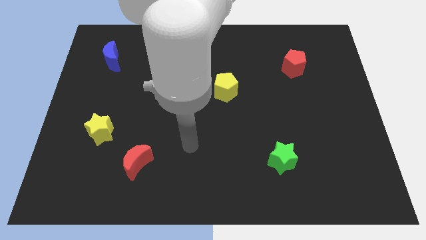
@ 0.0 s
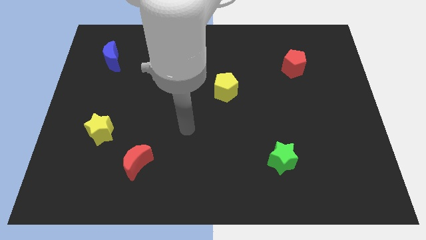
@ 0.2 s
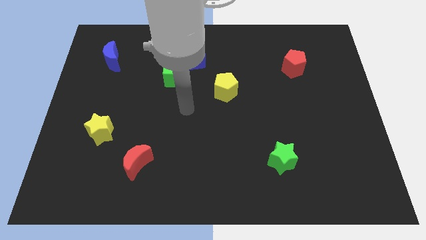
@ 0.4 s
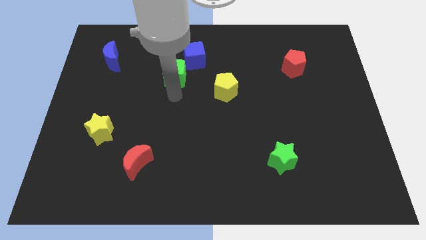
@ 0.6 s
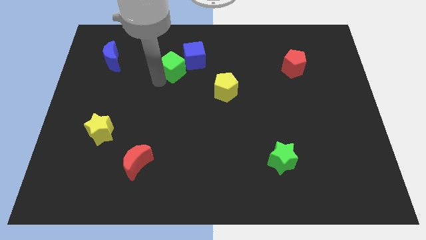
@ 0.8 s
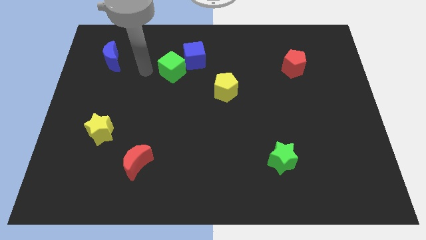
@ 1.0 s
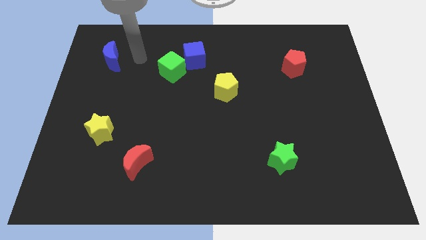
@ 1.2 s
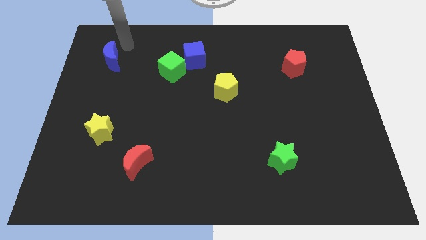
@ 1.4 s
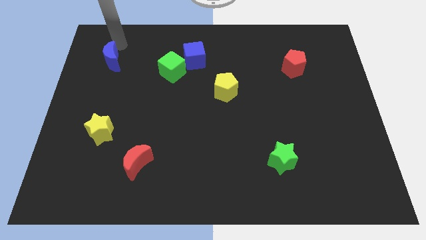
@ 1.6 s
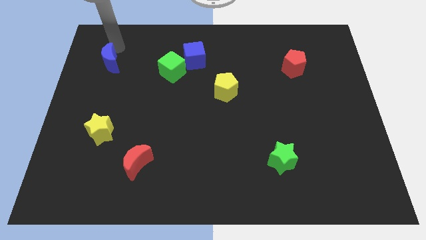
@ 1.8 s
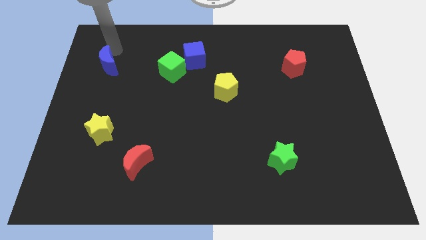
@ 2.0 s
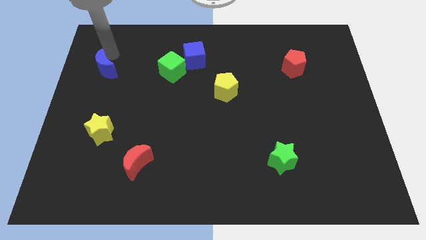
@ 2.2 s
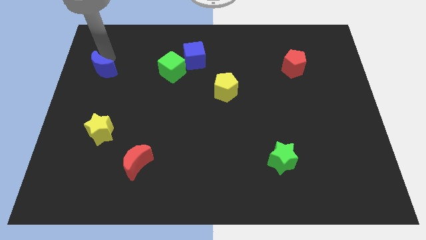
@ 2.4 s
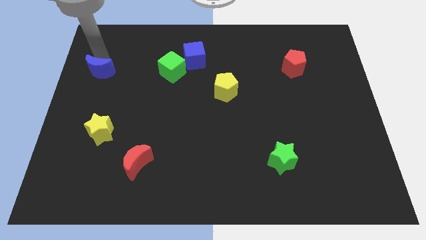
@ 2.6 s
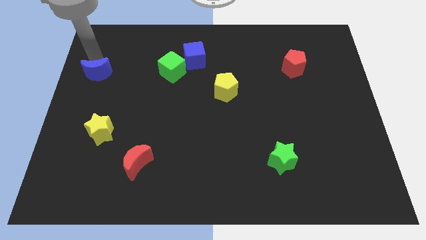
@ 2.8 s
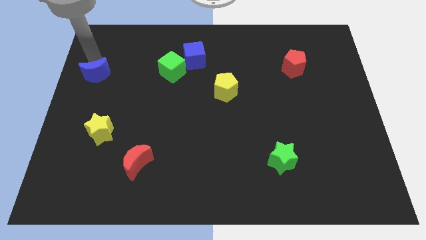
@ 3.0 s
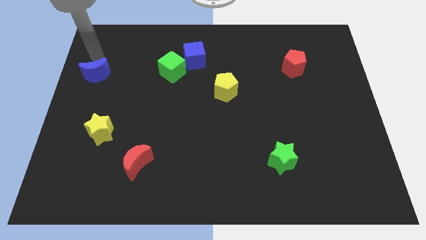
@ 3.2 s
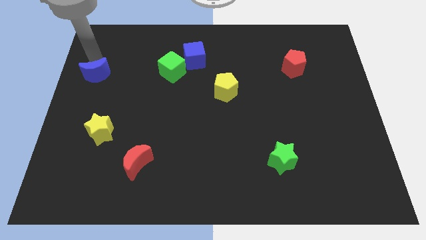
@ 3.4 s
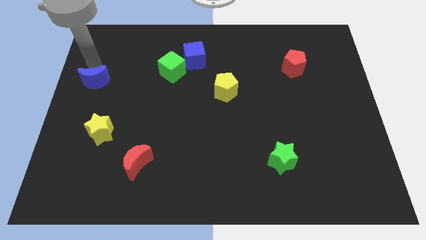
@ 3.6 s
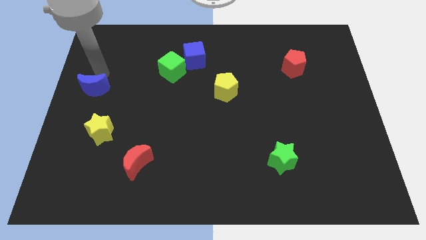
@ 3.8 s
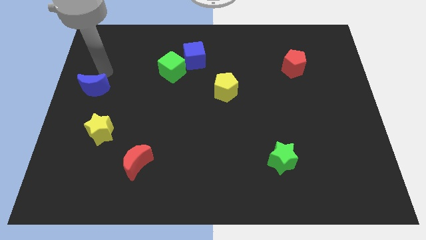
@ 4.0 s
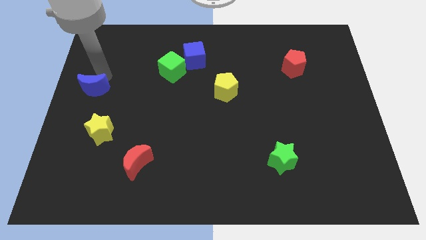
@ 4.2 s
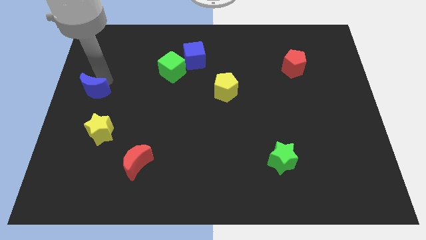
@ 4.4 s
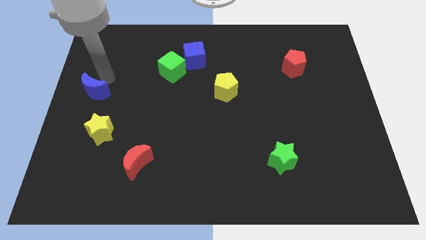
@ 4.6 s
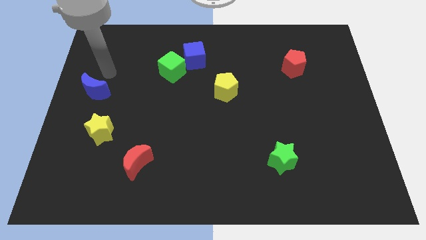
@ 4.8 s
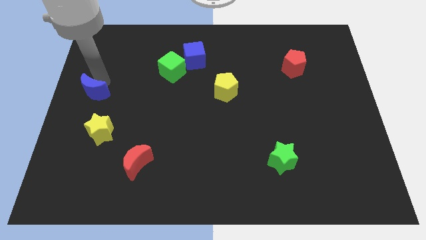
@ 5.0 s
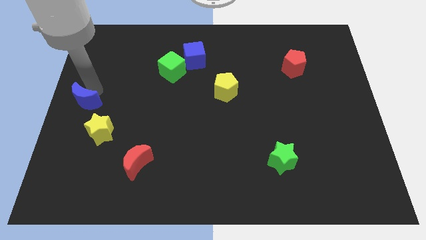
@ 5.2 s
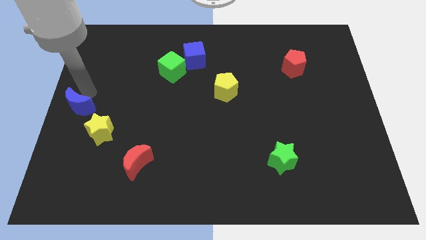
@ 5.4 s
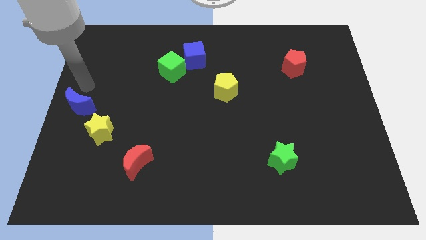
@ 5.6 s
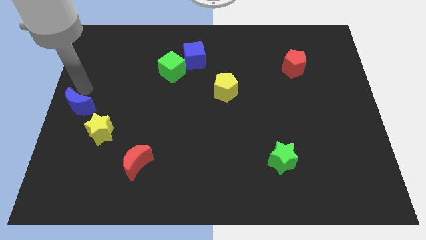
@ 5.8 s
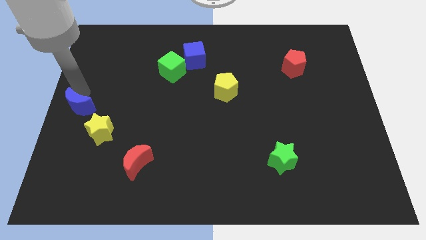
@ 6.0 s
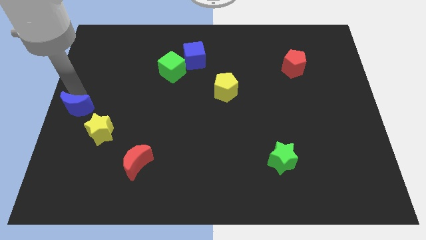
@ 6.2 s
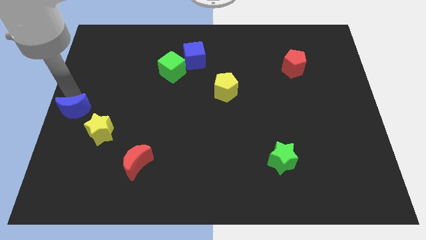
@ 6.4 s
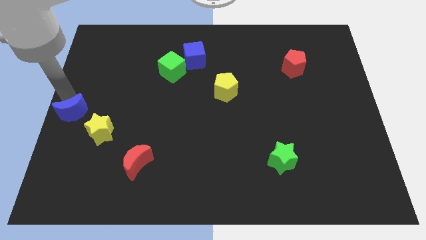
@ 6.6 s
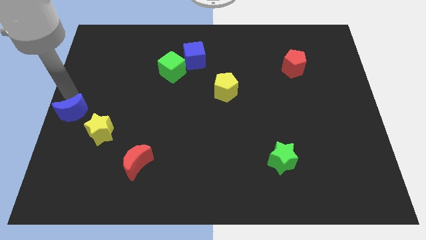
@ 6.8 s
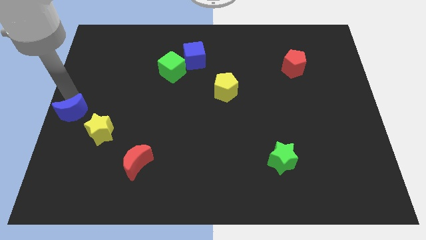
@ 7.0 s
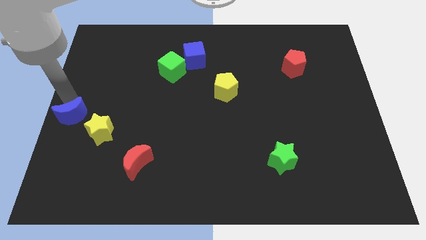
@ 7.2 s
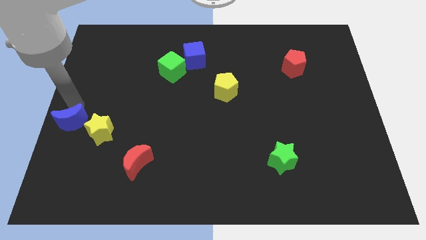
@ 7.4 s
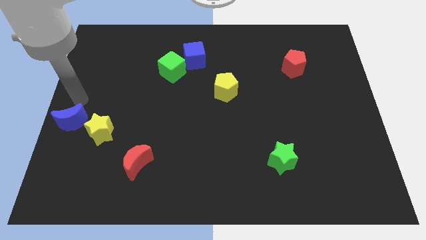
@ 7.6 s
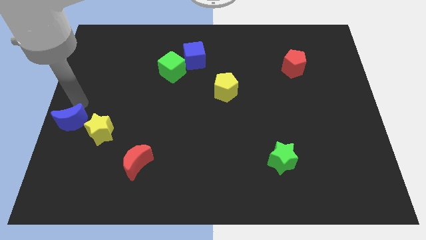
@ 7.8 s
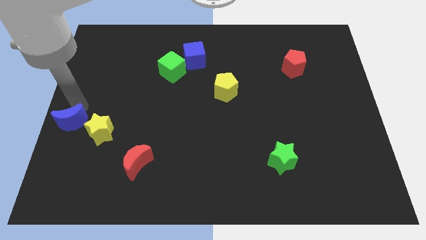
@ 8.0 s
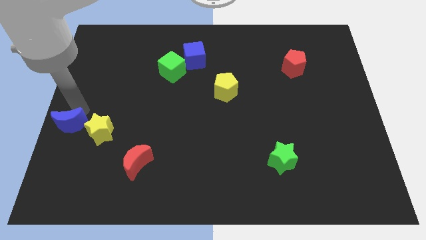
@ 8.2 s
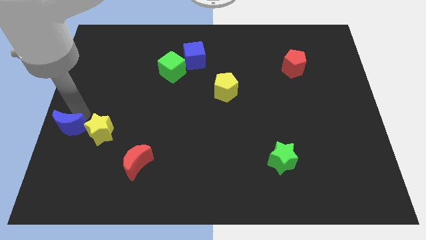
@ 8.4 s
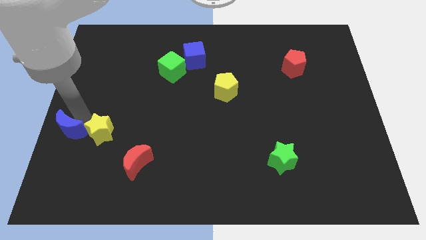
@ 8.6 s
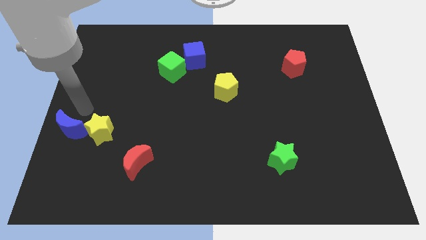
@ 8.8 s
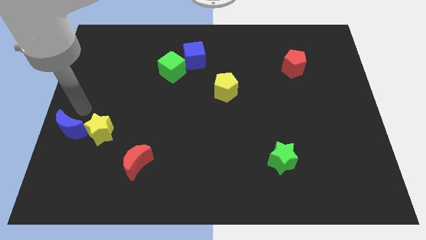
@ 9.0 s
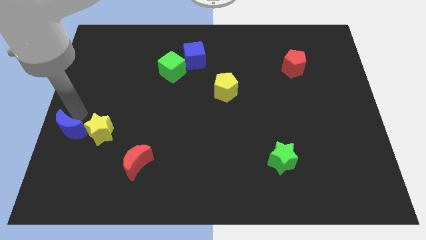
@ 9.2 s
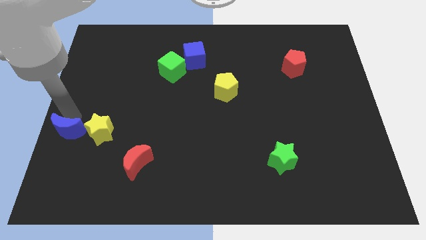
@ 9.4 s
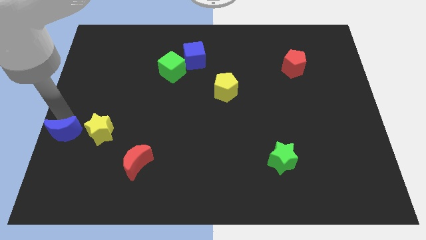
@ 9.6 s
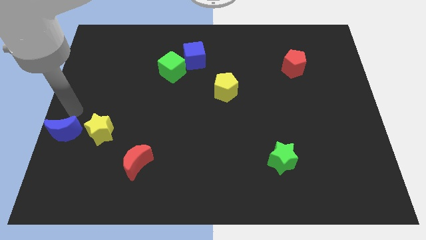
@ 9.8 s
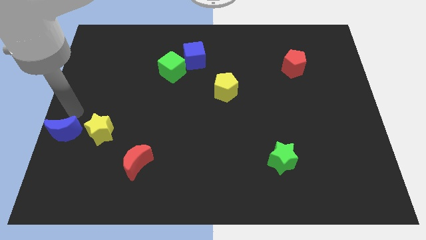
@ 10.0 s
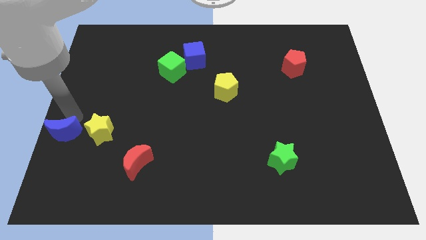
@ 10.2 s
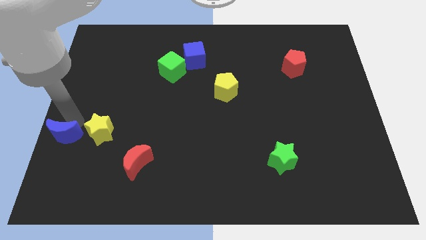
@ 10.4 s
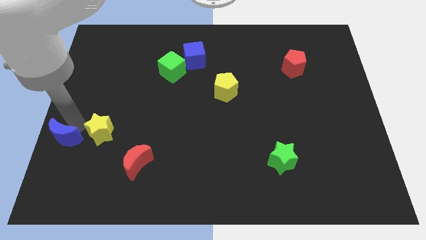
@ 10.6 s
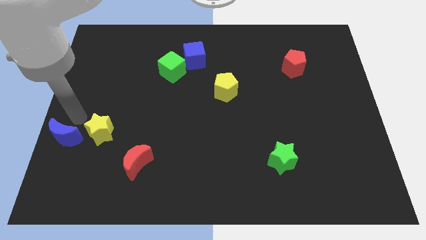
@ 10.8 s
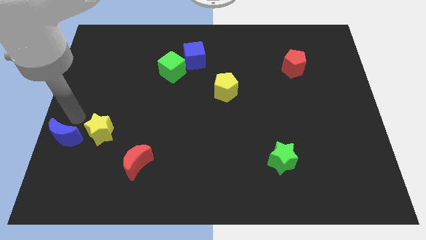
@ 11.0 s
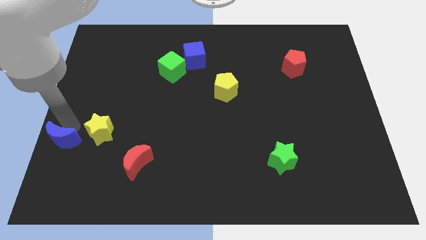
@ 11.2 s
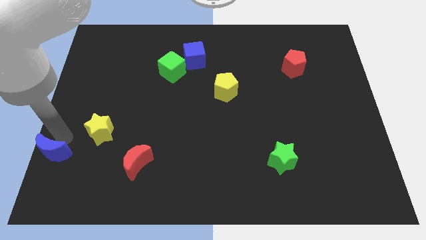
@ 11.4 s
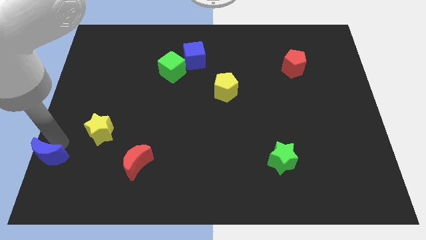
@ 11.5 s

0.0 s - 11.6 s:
put the blue moon to the bottom left

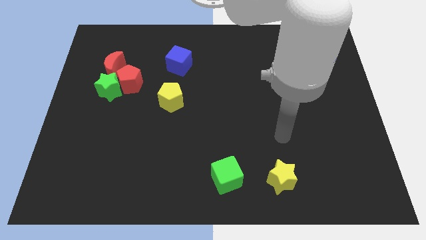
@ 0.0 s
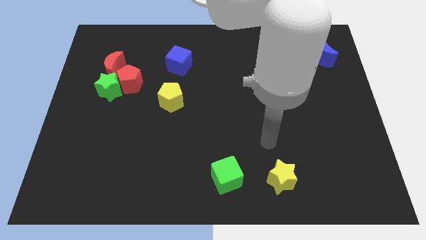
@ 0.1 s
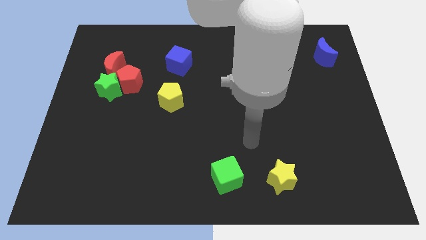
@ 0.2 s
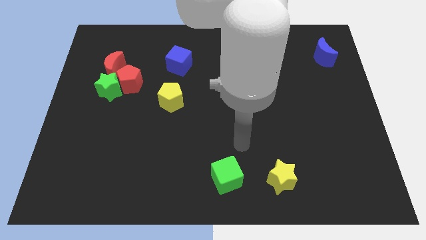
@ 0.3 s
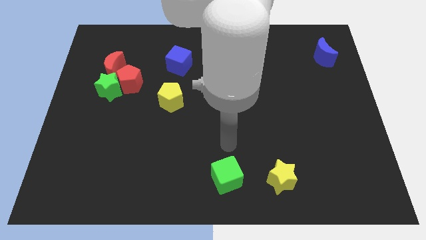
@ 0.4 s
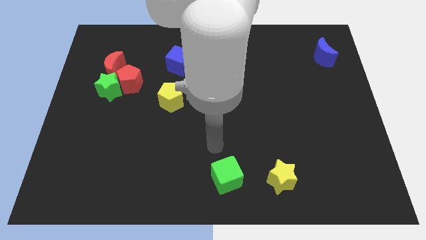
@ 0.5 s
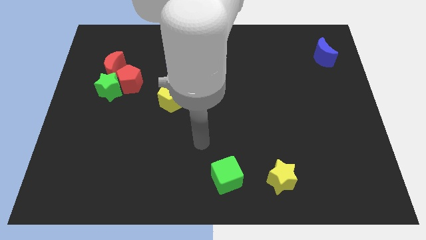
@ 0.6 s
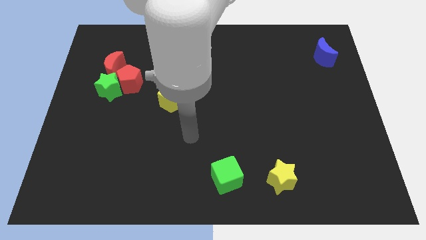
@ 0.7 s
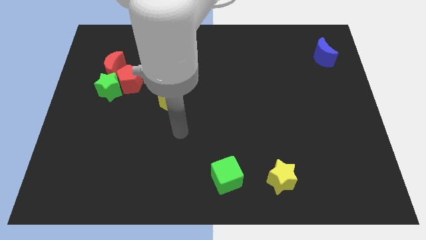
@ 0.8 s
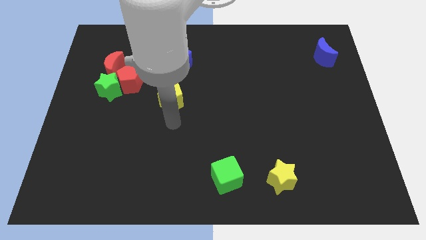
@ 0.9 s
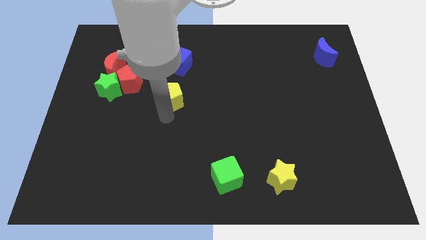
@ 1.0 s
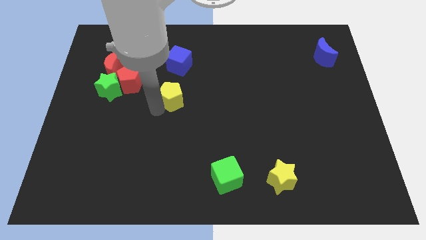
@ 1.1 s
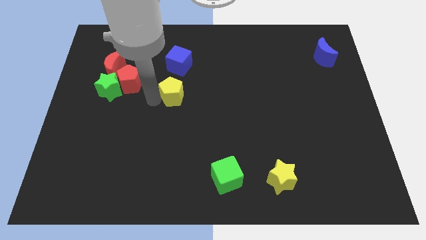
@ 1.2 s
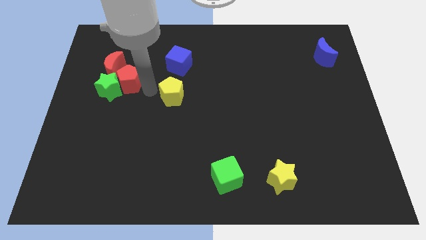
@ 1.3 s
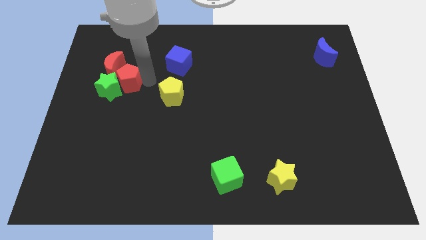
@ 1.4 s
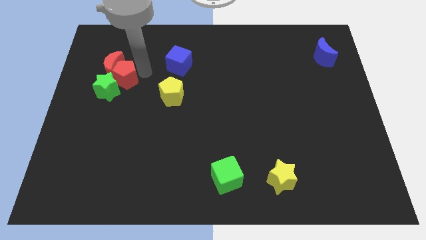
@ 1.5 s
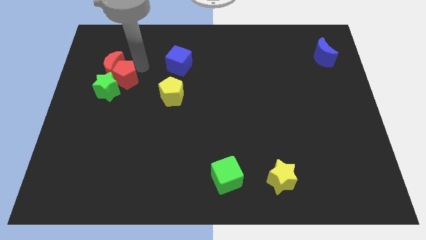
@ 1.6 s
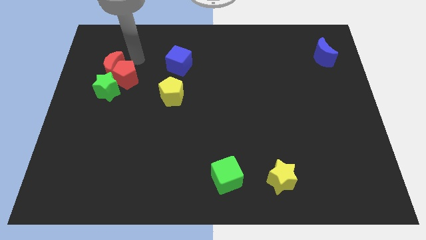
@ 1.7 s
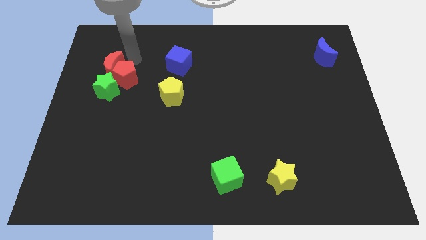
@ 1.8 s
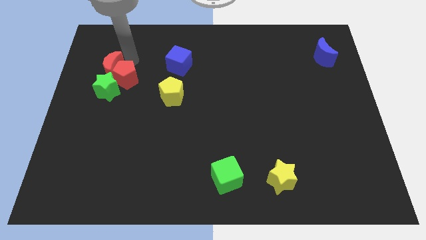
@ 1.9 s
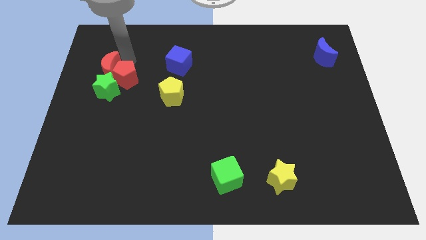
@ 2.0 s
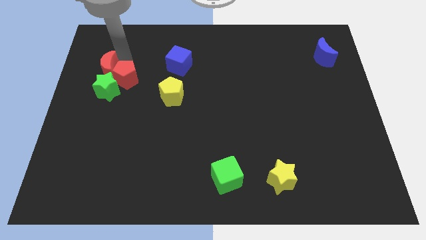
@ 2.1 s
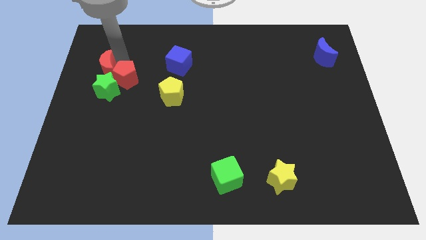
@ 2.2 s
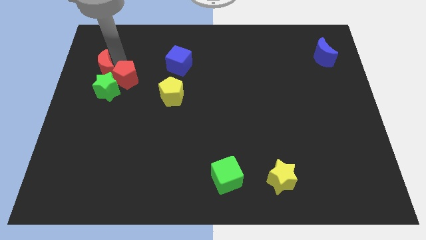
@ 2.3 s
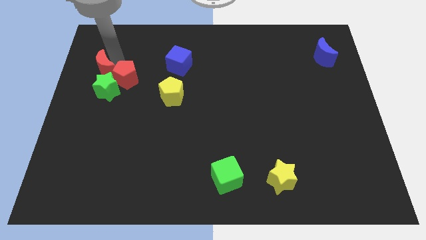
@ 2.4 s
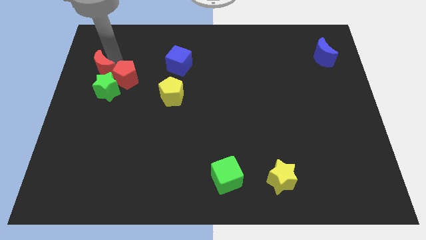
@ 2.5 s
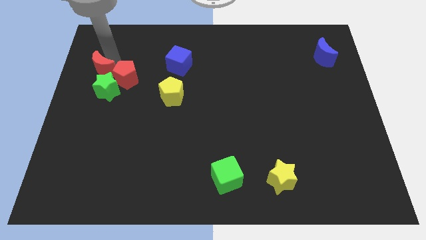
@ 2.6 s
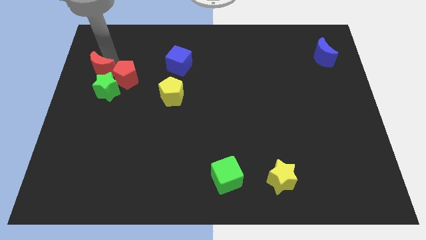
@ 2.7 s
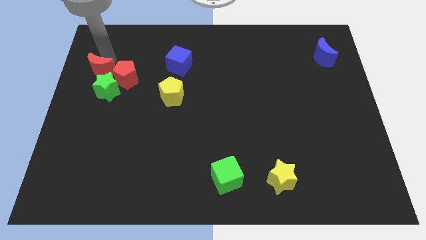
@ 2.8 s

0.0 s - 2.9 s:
move the red moon to the center left
